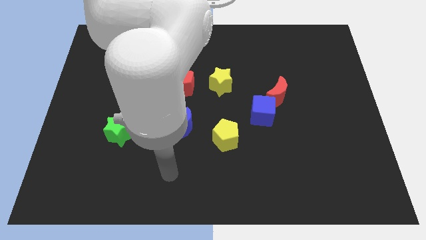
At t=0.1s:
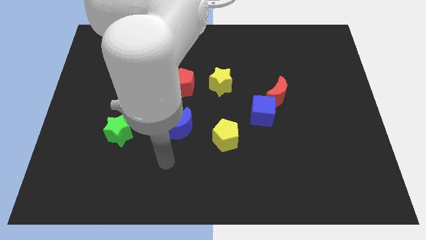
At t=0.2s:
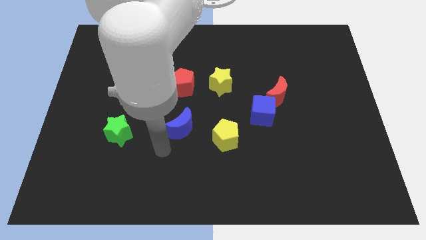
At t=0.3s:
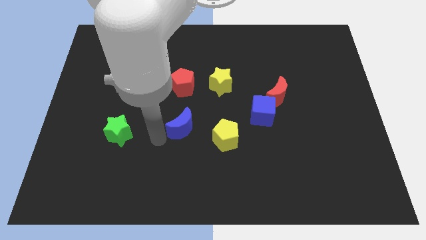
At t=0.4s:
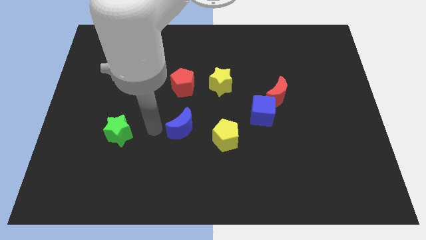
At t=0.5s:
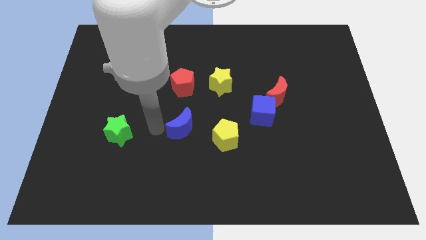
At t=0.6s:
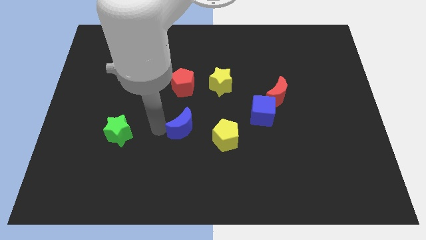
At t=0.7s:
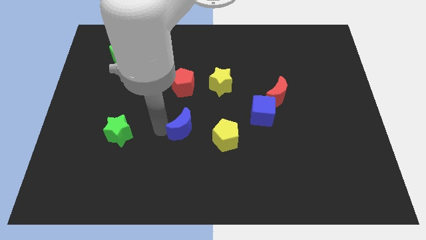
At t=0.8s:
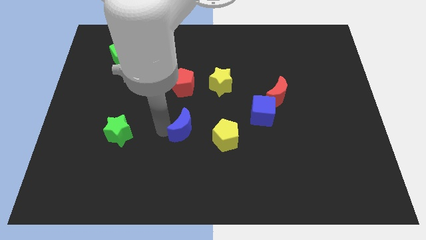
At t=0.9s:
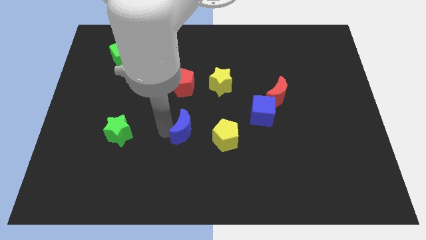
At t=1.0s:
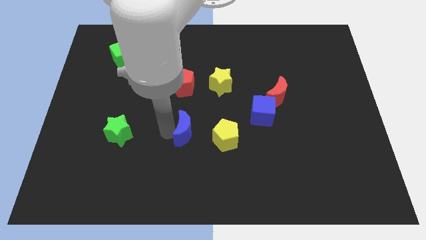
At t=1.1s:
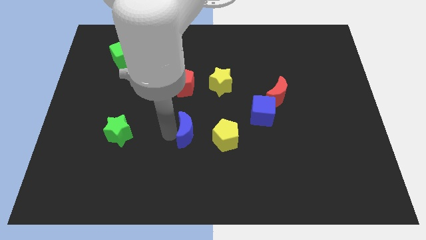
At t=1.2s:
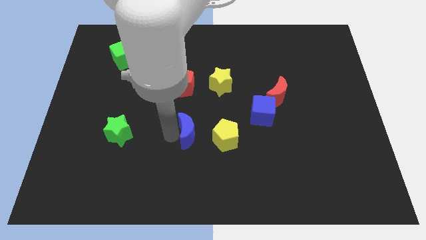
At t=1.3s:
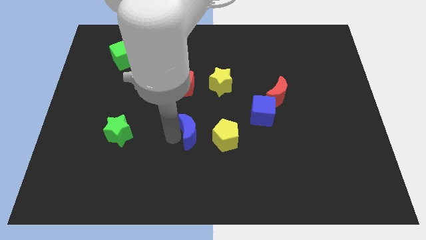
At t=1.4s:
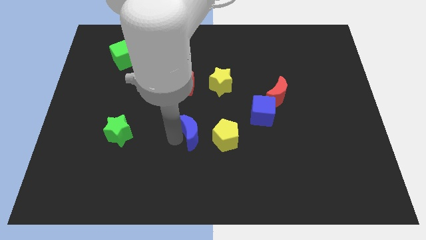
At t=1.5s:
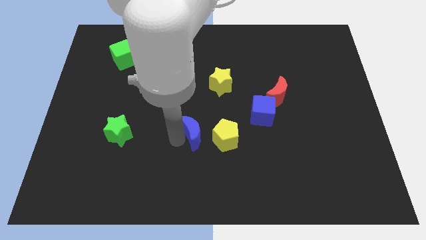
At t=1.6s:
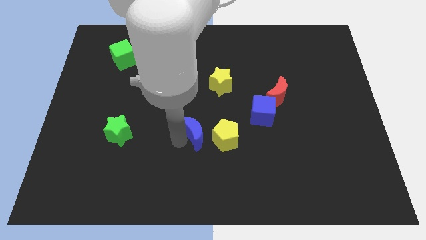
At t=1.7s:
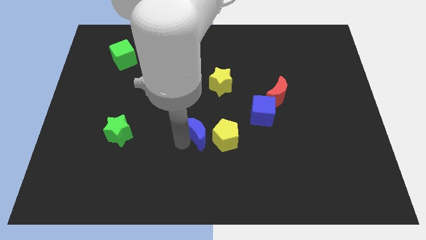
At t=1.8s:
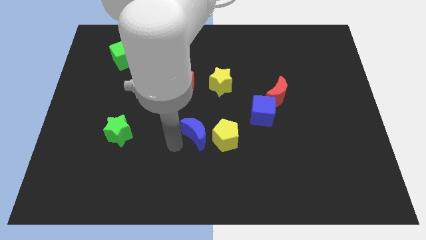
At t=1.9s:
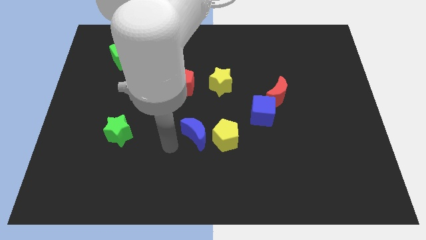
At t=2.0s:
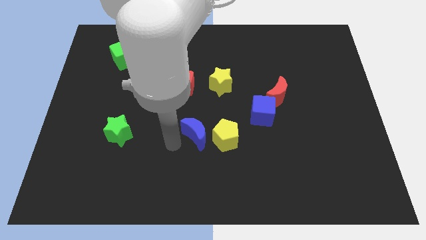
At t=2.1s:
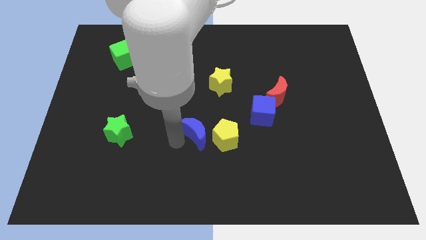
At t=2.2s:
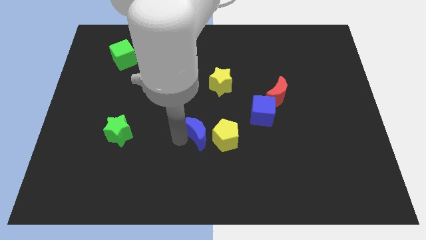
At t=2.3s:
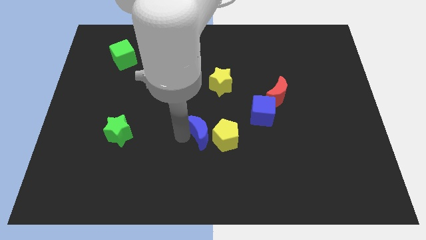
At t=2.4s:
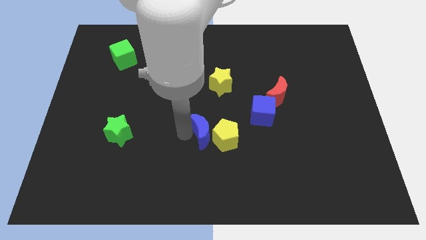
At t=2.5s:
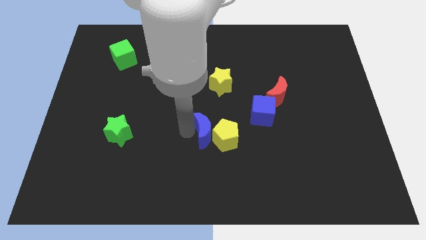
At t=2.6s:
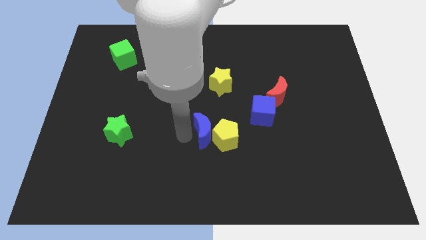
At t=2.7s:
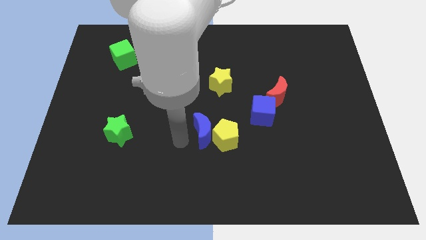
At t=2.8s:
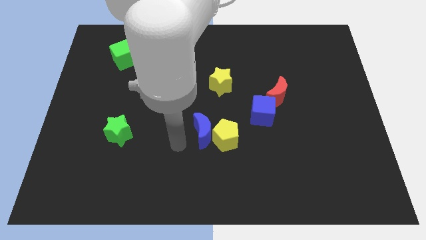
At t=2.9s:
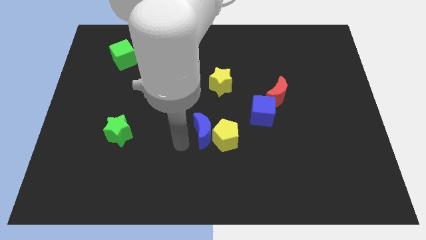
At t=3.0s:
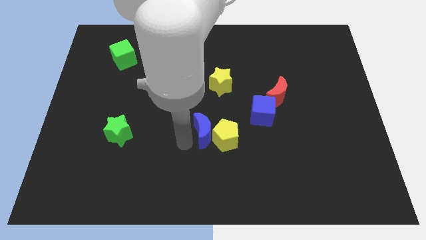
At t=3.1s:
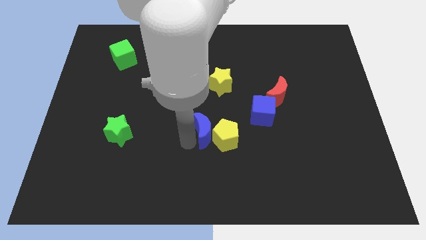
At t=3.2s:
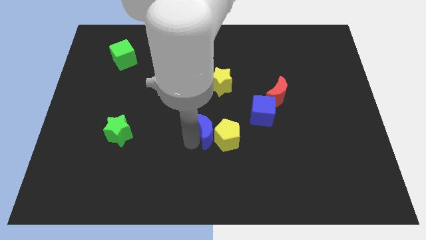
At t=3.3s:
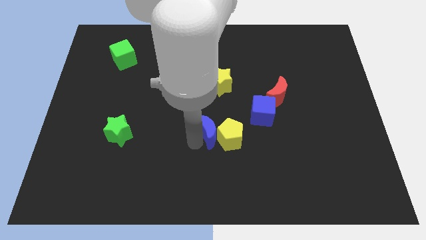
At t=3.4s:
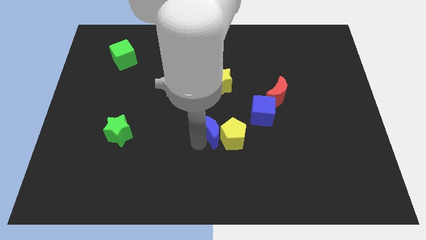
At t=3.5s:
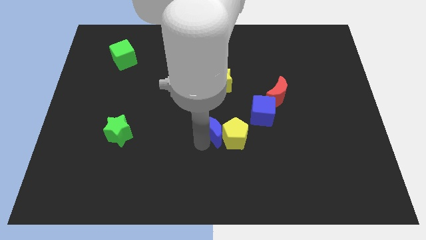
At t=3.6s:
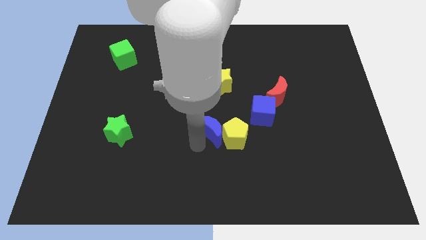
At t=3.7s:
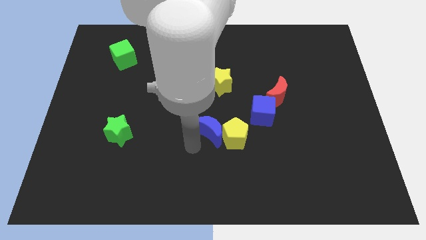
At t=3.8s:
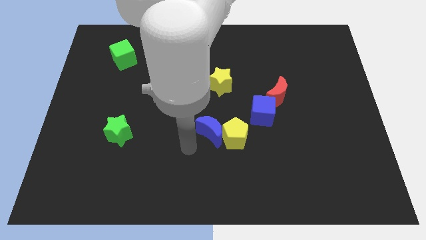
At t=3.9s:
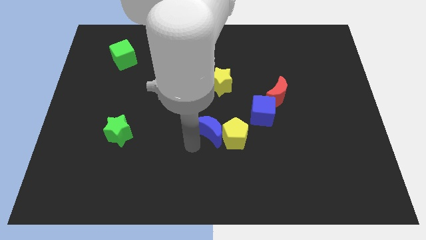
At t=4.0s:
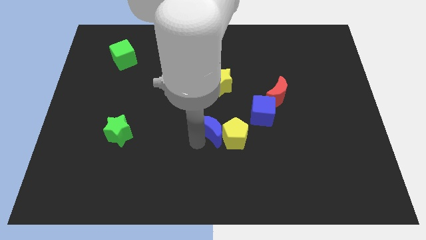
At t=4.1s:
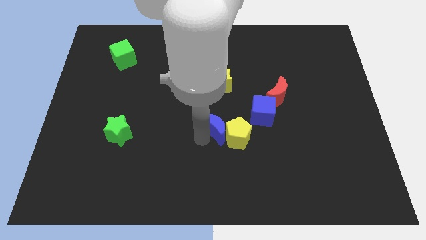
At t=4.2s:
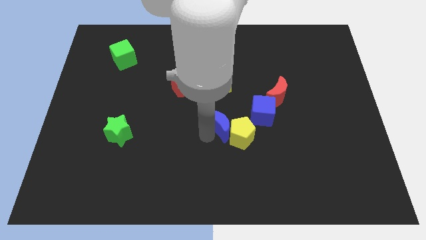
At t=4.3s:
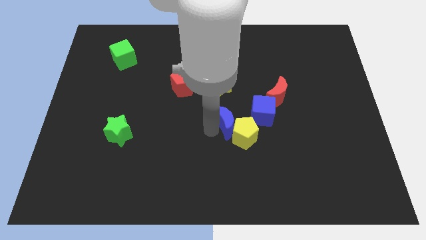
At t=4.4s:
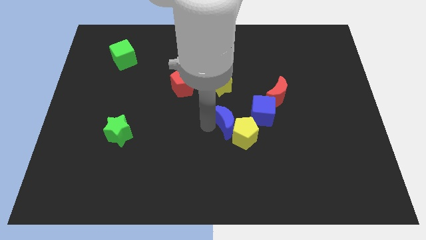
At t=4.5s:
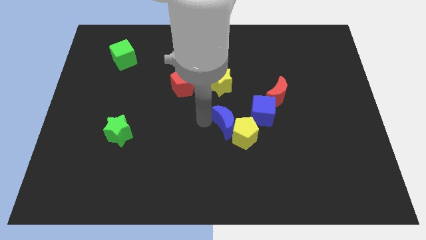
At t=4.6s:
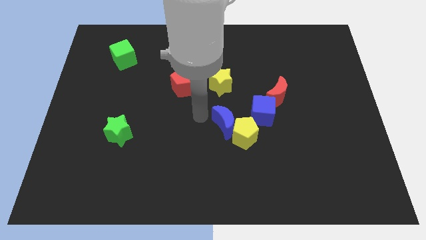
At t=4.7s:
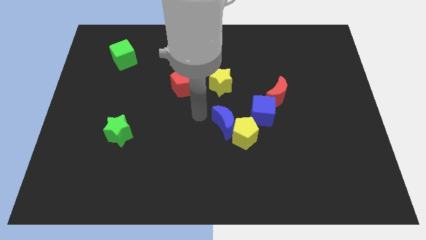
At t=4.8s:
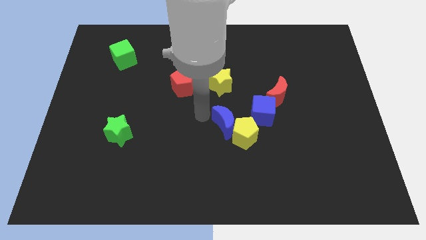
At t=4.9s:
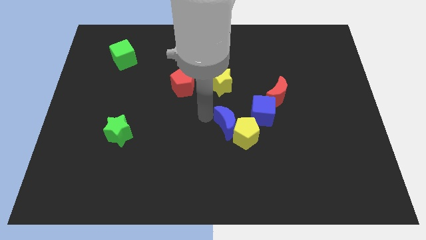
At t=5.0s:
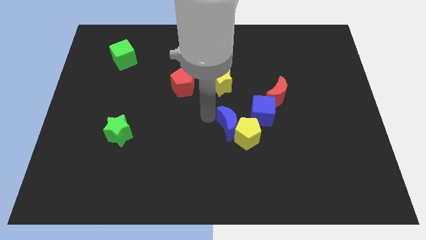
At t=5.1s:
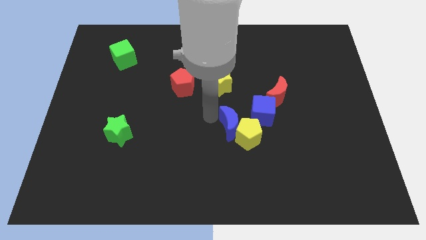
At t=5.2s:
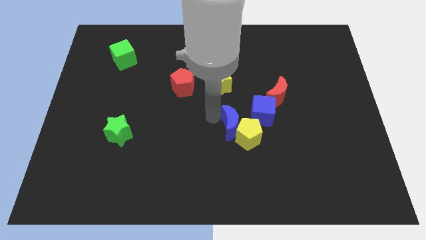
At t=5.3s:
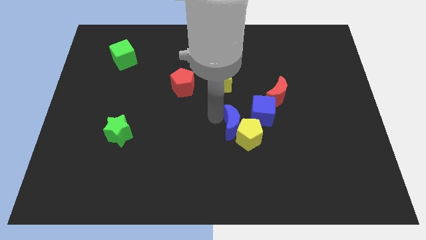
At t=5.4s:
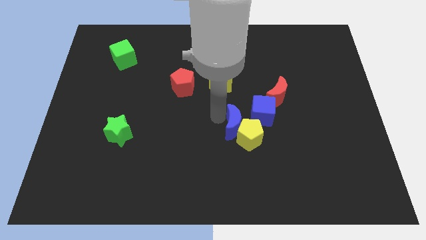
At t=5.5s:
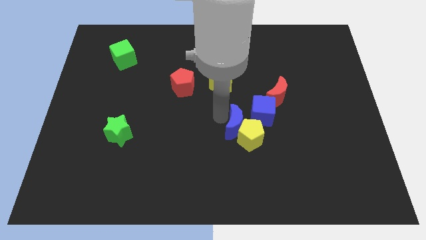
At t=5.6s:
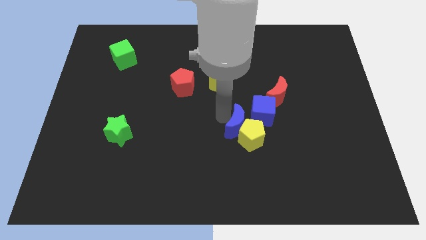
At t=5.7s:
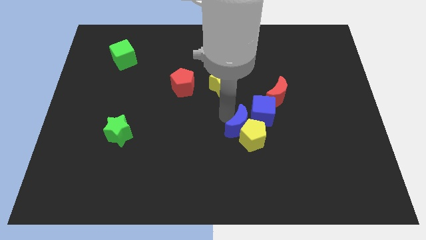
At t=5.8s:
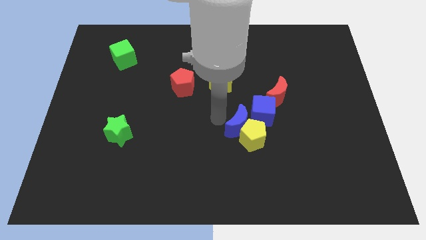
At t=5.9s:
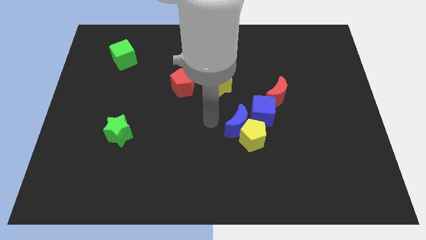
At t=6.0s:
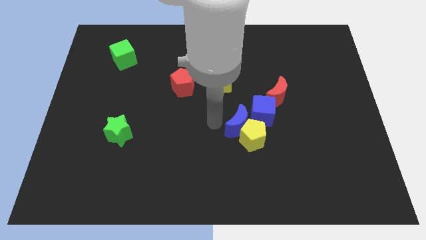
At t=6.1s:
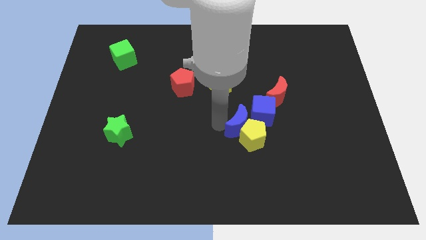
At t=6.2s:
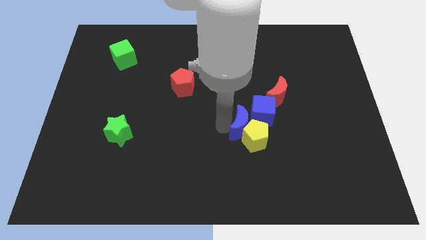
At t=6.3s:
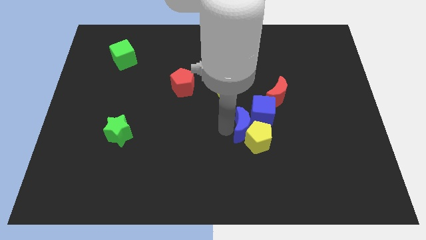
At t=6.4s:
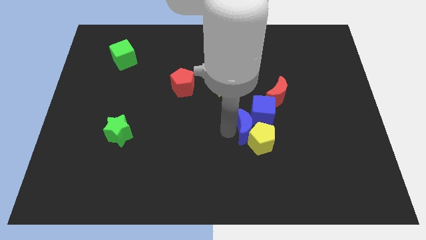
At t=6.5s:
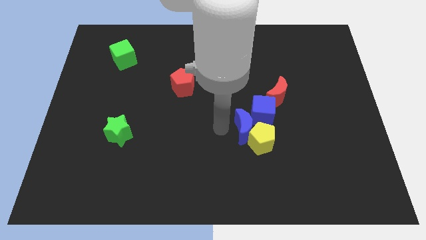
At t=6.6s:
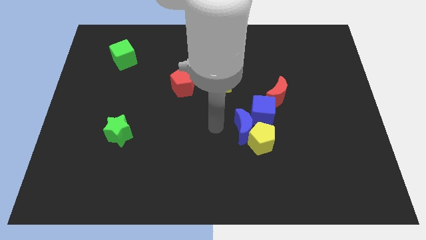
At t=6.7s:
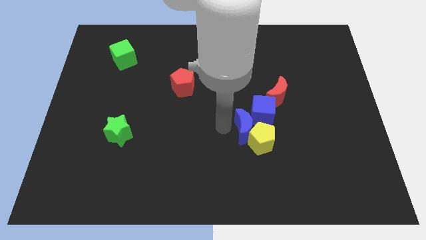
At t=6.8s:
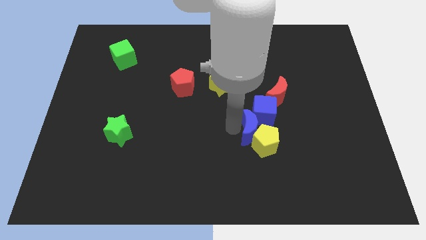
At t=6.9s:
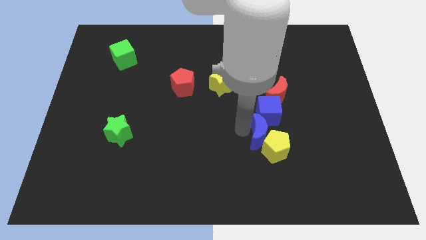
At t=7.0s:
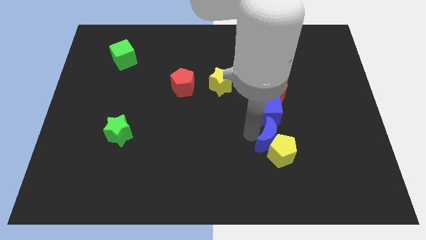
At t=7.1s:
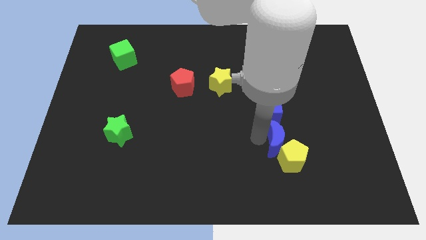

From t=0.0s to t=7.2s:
push the blue moon to the bottom right side of the blue cube
